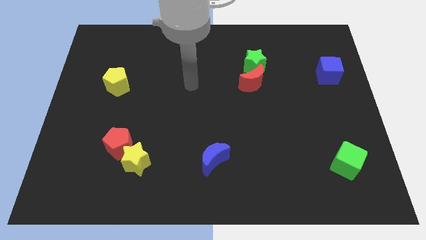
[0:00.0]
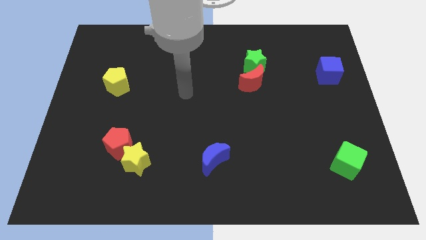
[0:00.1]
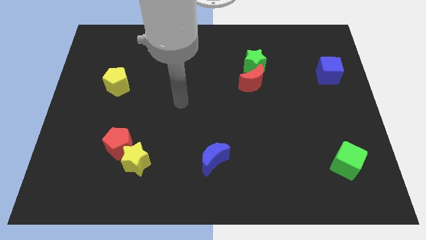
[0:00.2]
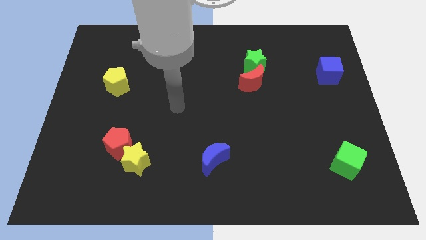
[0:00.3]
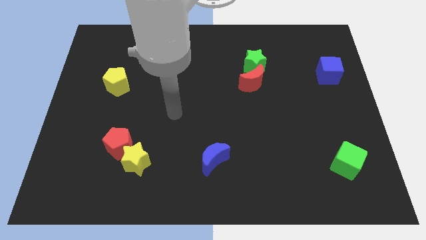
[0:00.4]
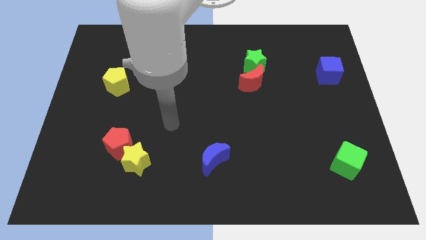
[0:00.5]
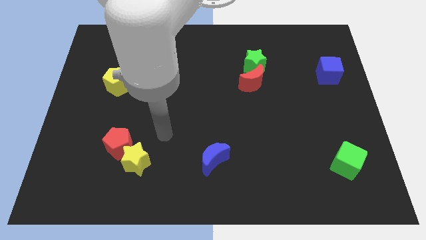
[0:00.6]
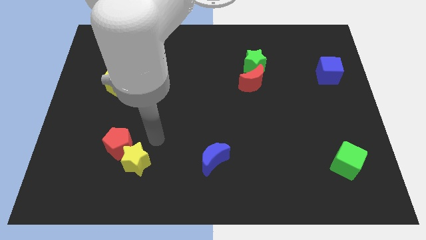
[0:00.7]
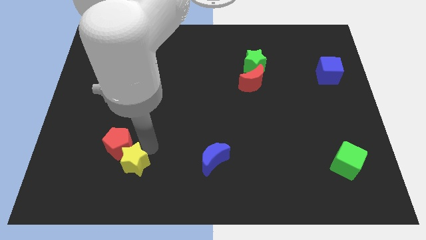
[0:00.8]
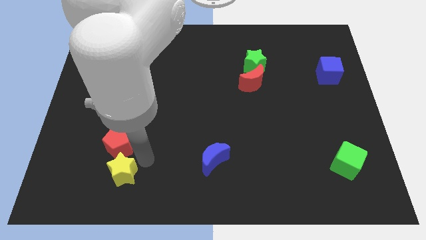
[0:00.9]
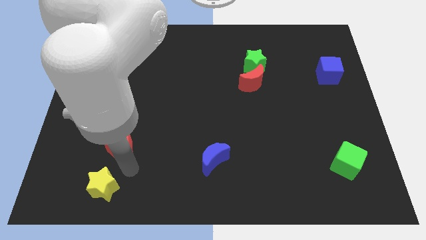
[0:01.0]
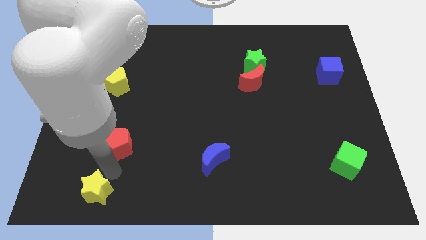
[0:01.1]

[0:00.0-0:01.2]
pull the red pentagon apart from the yellow star

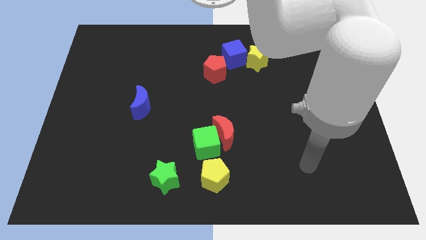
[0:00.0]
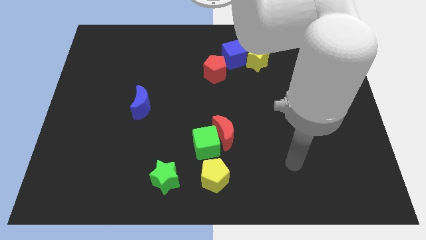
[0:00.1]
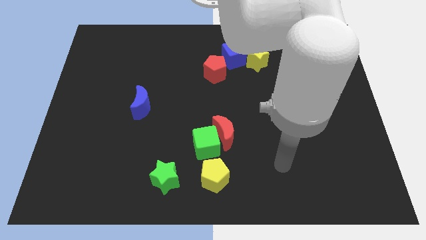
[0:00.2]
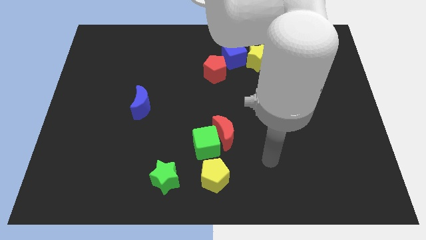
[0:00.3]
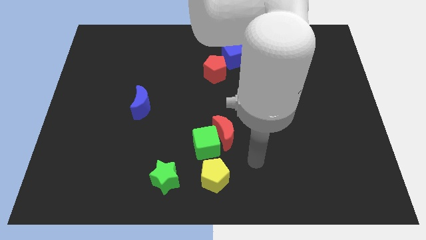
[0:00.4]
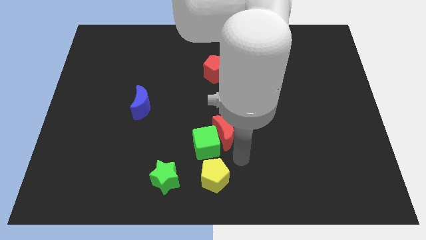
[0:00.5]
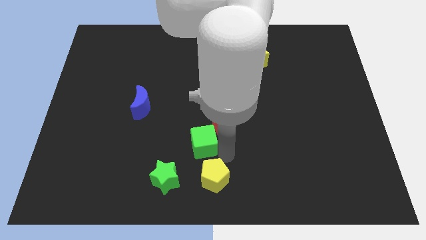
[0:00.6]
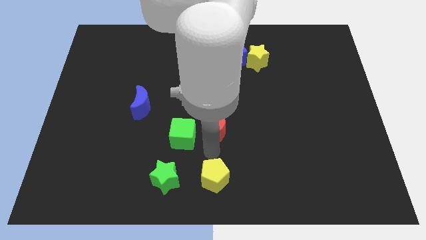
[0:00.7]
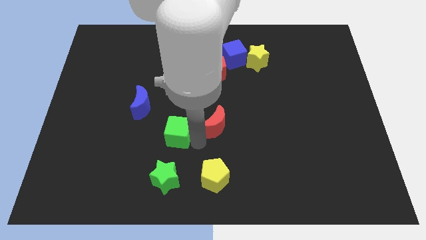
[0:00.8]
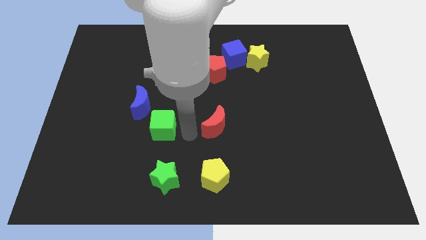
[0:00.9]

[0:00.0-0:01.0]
separate the red moon from the green cube

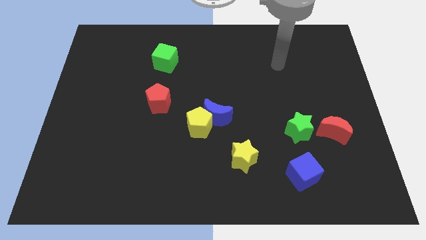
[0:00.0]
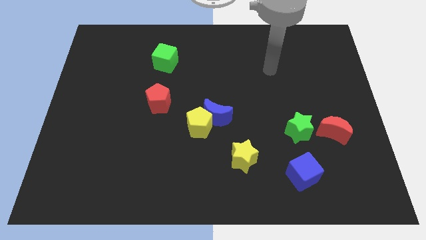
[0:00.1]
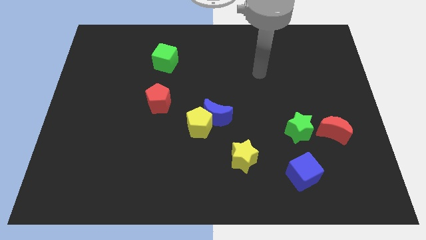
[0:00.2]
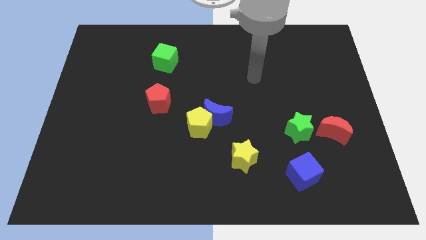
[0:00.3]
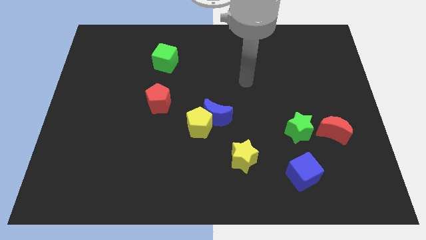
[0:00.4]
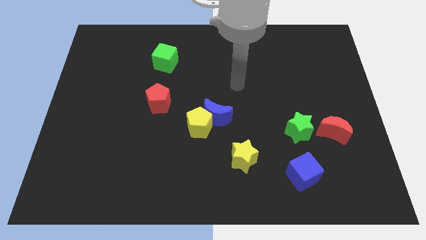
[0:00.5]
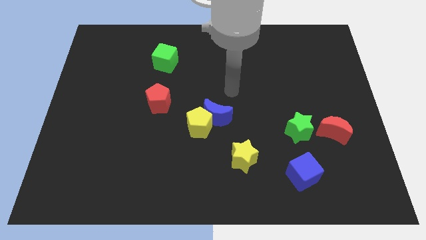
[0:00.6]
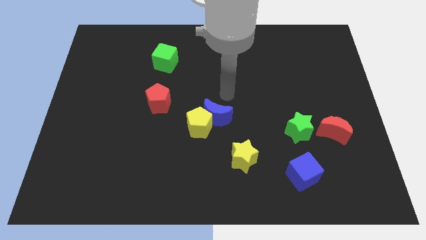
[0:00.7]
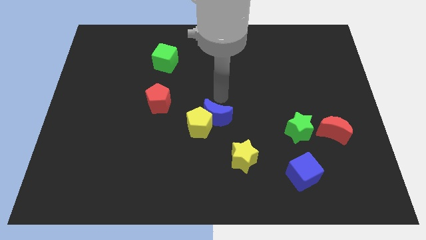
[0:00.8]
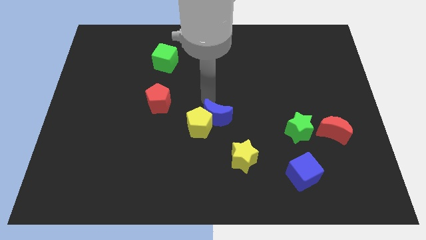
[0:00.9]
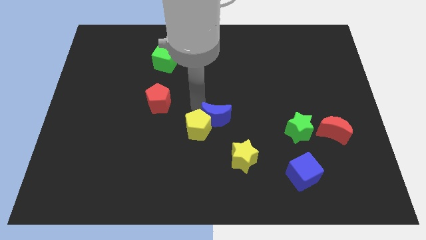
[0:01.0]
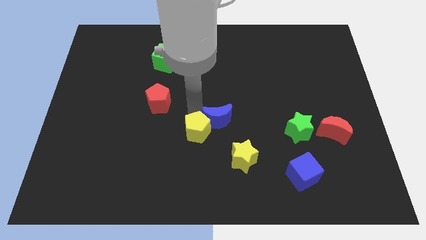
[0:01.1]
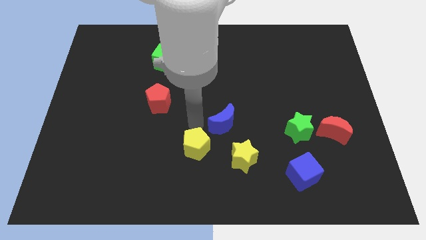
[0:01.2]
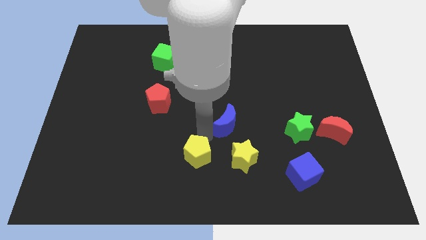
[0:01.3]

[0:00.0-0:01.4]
separate the blue moon from the yellow pentagon

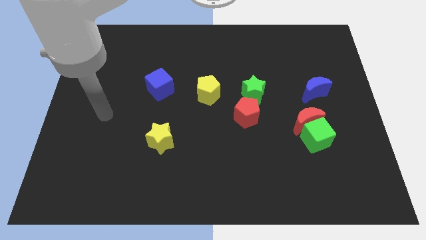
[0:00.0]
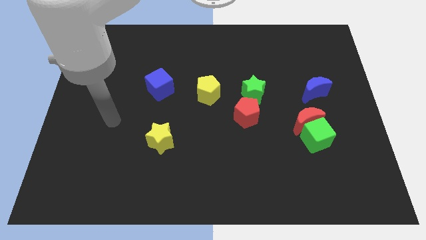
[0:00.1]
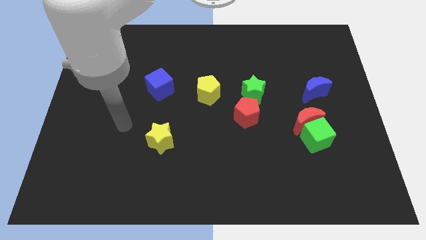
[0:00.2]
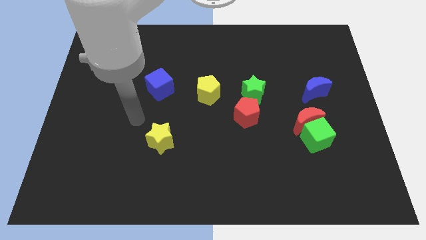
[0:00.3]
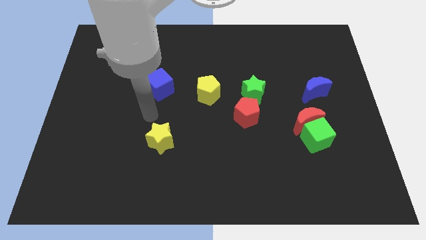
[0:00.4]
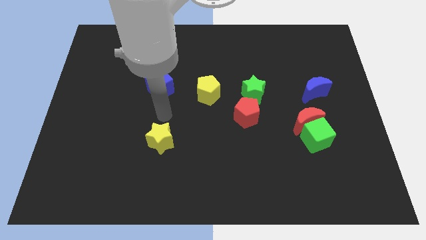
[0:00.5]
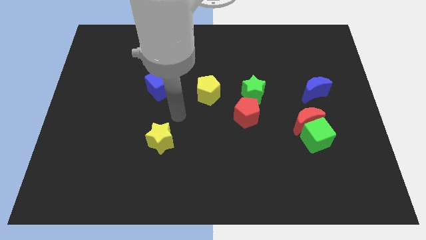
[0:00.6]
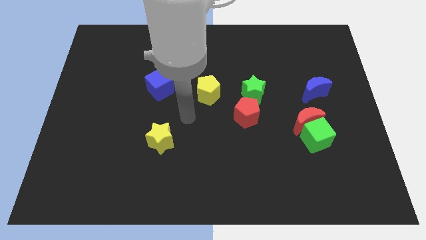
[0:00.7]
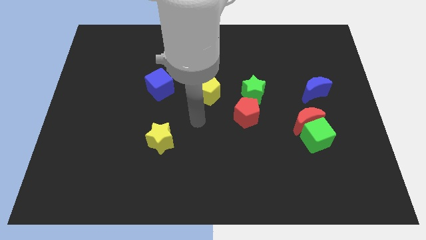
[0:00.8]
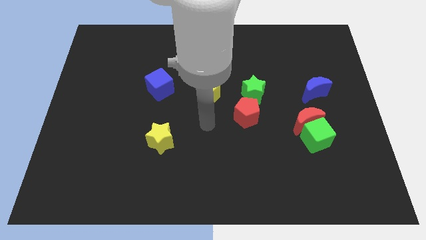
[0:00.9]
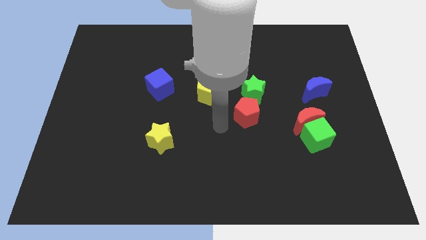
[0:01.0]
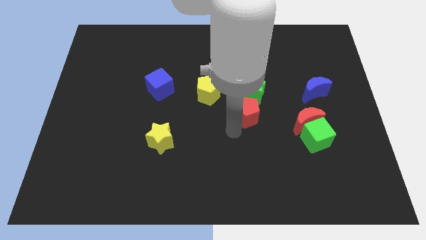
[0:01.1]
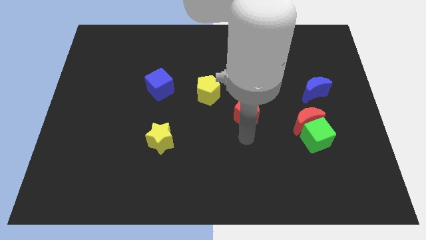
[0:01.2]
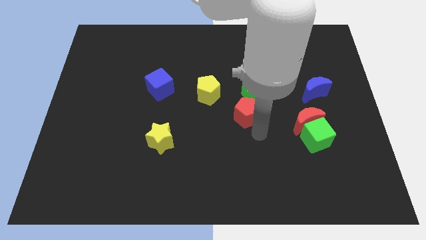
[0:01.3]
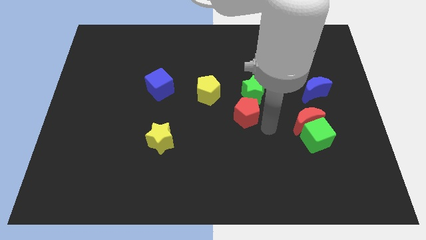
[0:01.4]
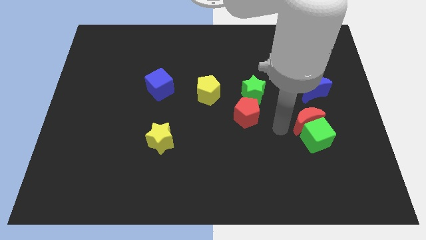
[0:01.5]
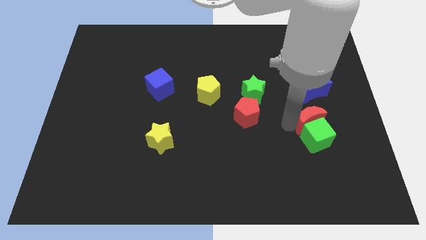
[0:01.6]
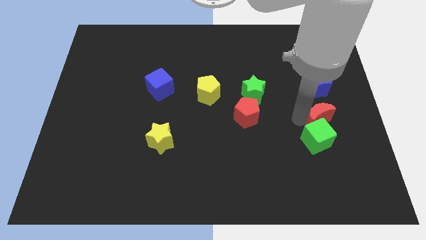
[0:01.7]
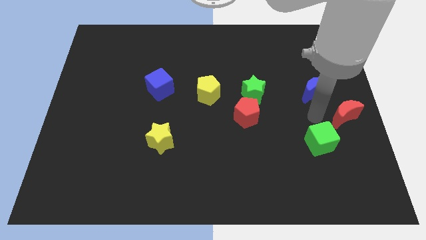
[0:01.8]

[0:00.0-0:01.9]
move the green cube away from the red moon

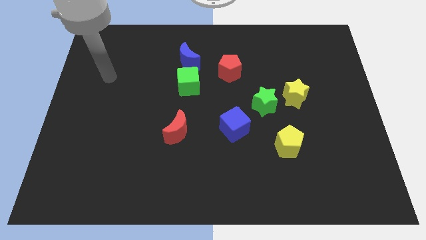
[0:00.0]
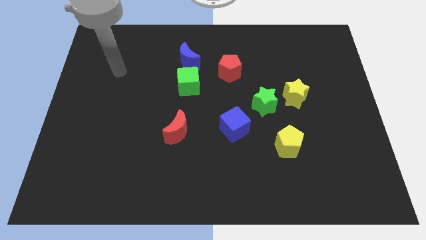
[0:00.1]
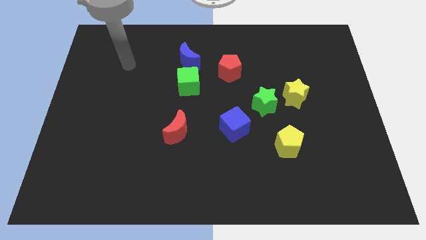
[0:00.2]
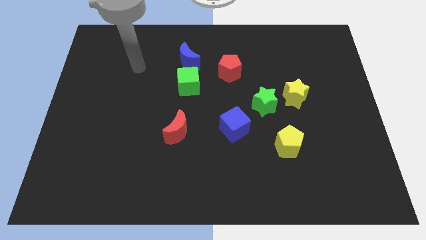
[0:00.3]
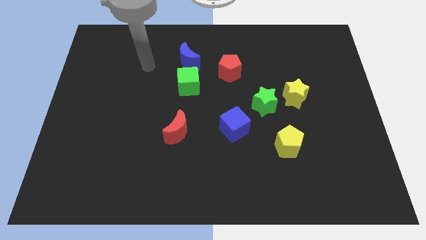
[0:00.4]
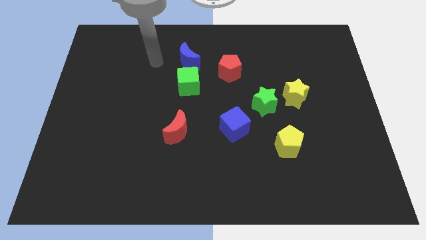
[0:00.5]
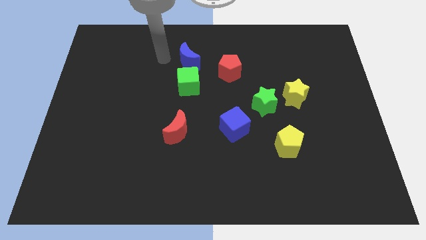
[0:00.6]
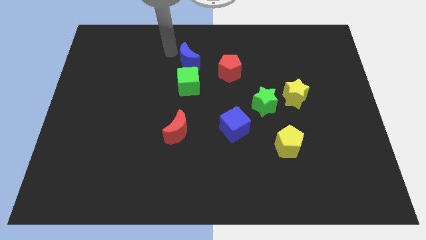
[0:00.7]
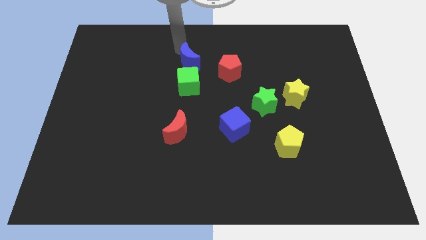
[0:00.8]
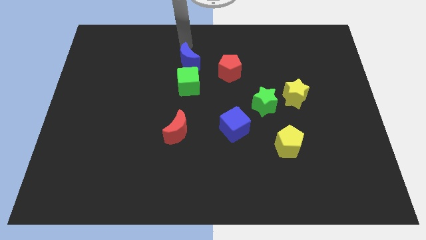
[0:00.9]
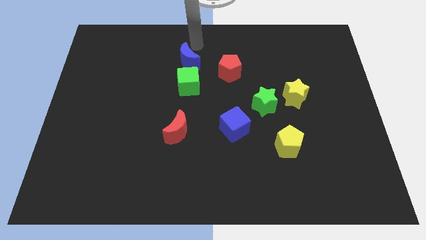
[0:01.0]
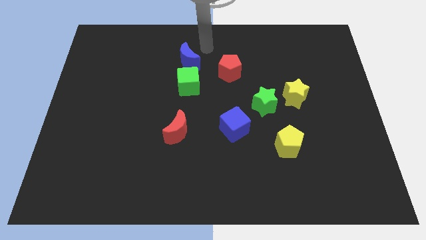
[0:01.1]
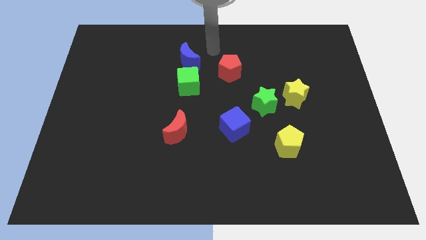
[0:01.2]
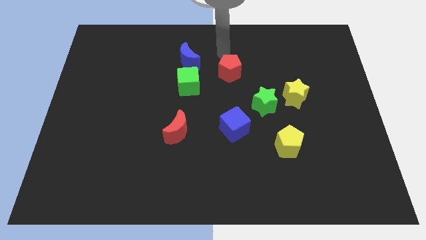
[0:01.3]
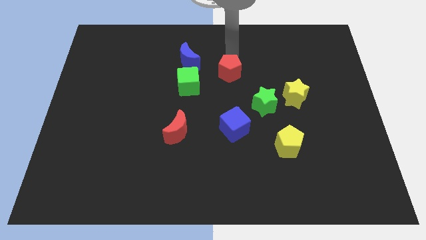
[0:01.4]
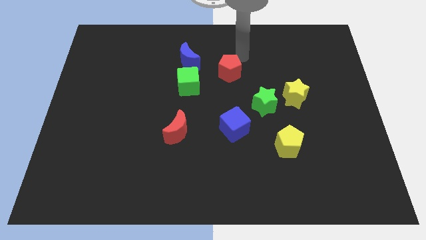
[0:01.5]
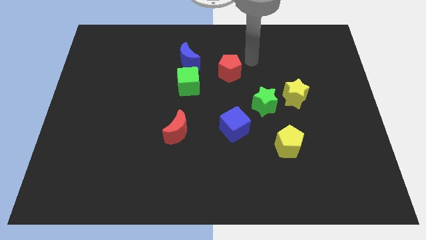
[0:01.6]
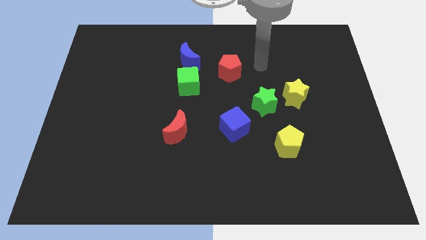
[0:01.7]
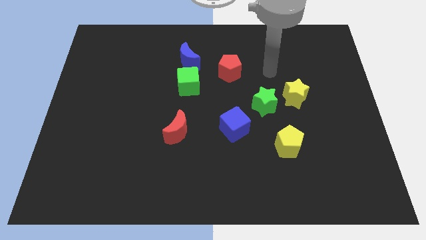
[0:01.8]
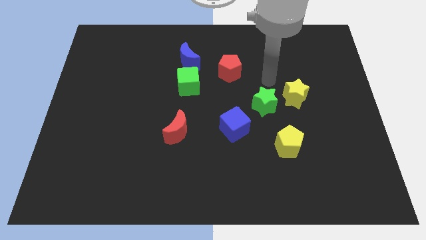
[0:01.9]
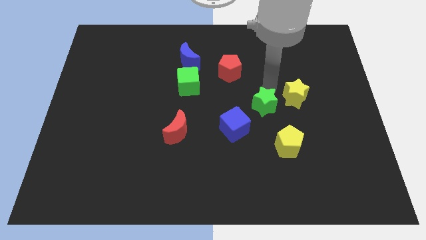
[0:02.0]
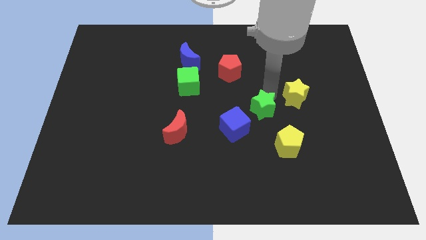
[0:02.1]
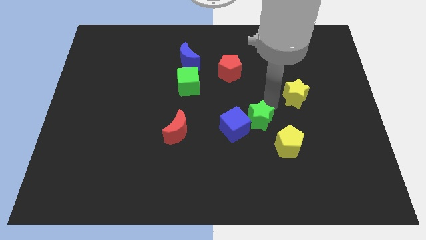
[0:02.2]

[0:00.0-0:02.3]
move the yellow star away from the green star

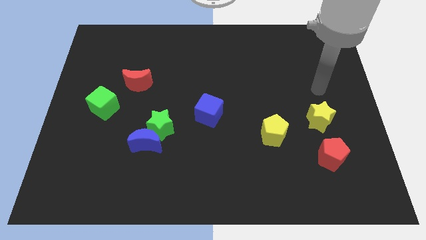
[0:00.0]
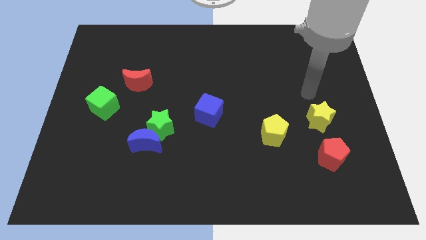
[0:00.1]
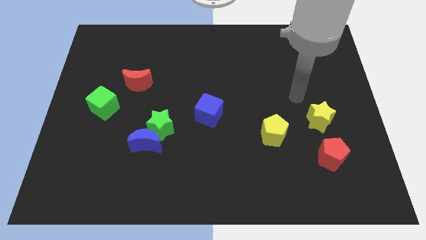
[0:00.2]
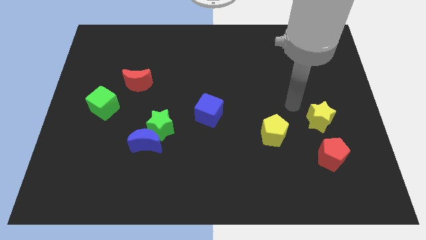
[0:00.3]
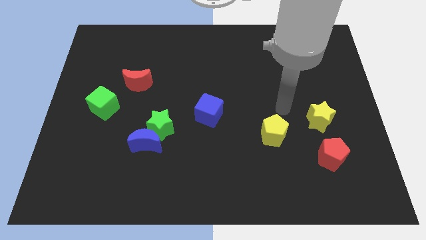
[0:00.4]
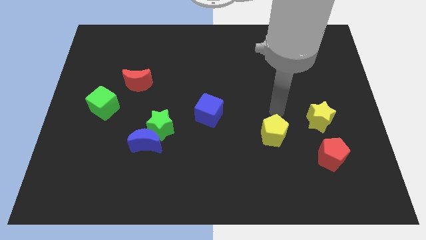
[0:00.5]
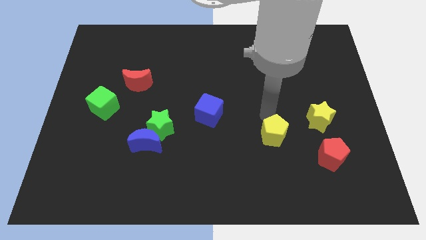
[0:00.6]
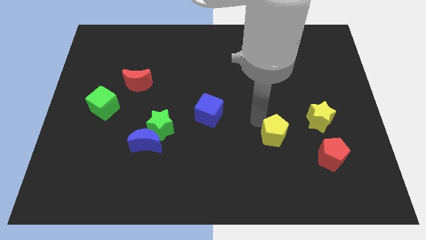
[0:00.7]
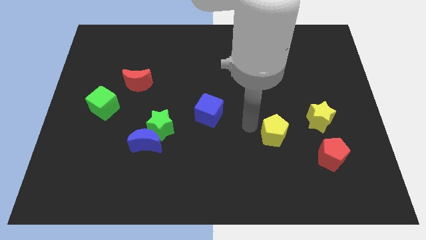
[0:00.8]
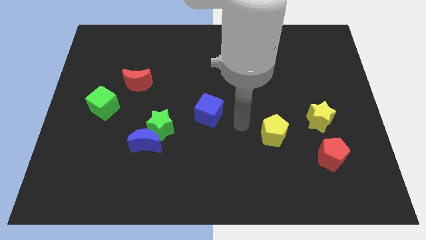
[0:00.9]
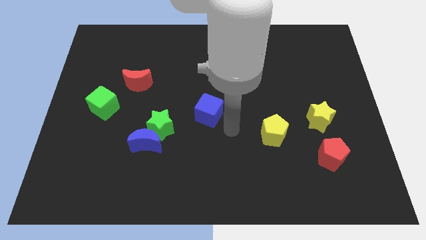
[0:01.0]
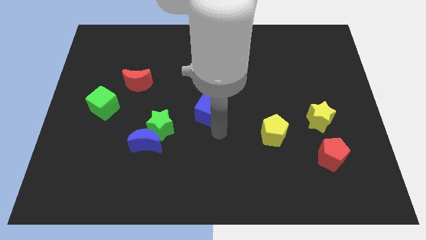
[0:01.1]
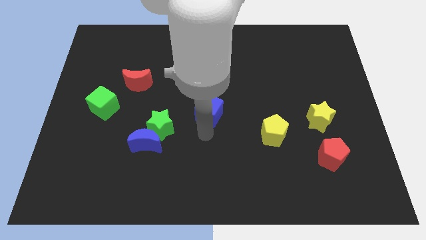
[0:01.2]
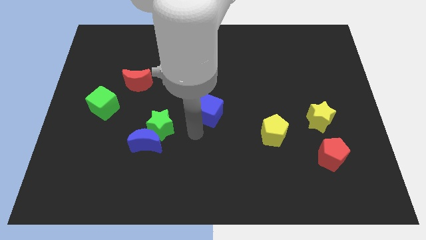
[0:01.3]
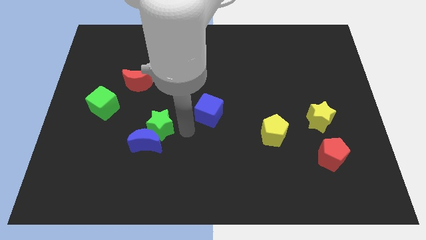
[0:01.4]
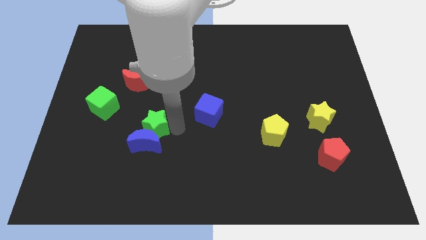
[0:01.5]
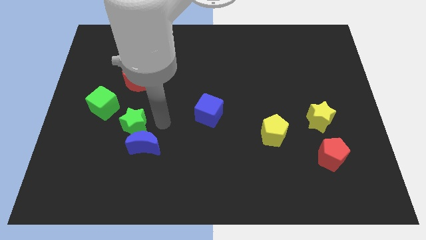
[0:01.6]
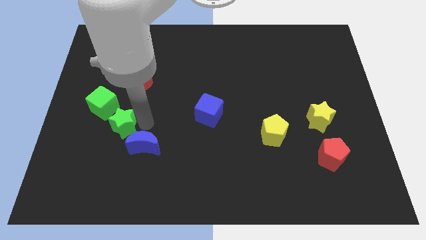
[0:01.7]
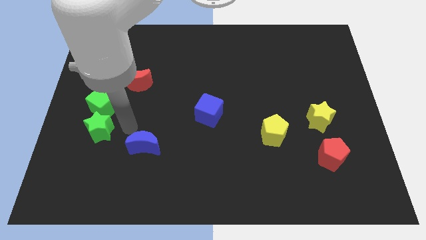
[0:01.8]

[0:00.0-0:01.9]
pull the blue moon apart from the green star
